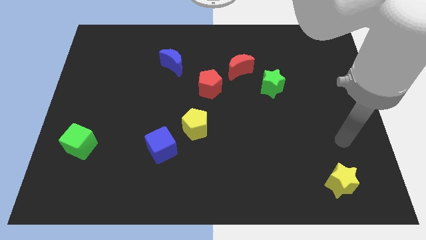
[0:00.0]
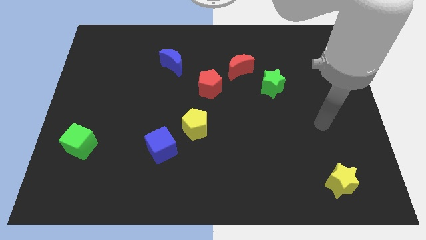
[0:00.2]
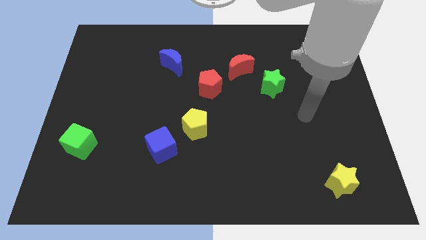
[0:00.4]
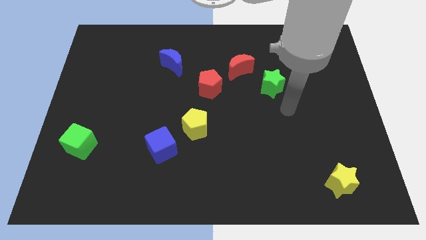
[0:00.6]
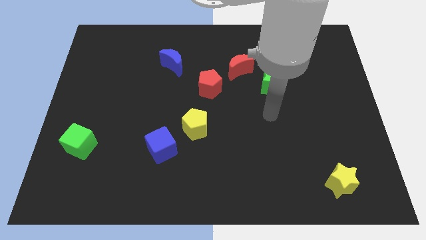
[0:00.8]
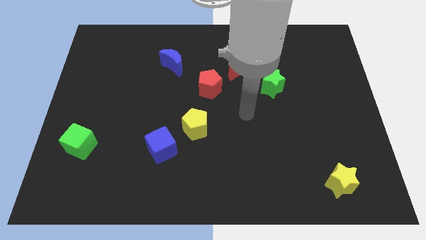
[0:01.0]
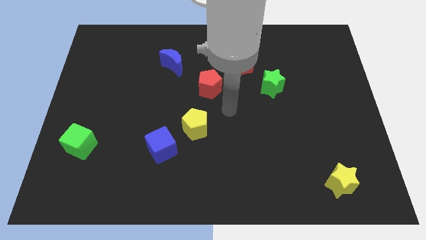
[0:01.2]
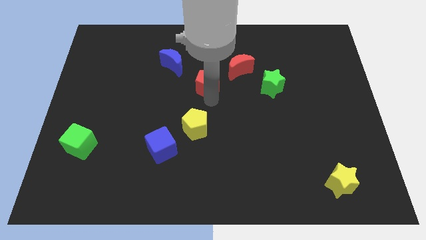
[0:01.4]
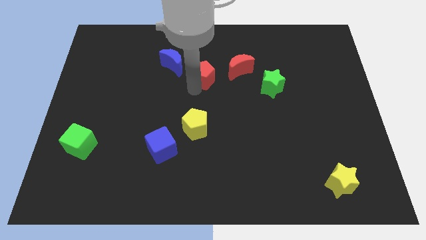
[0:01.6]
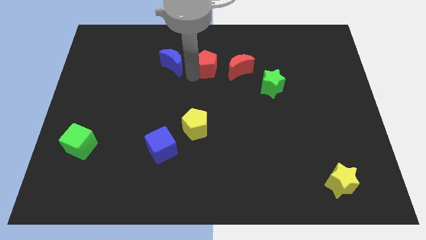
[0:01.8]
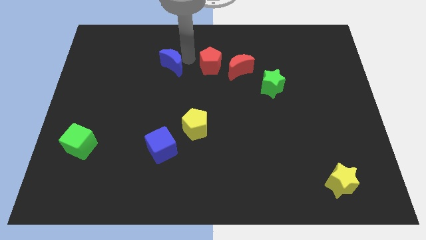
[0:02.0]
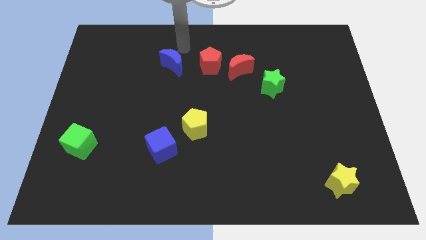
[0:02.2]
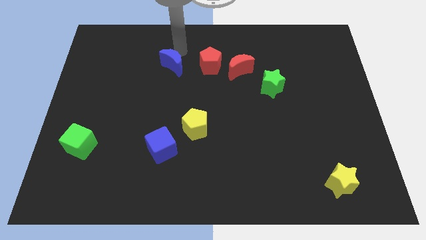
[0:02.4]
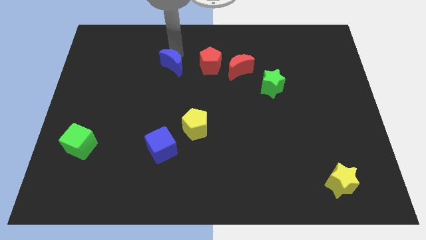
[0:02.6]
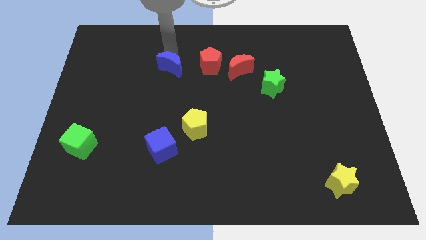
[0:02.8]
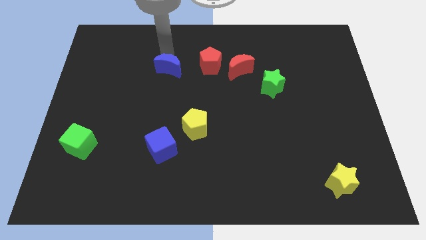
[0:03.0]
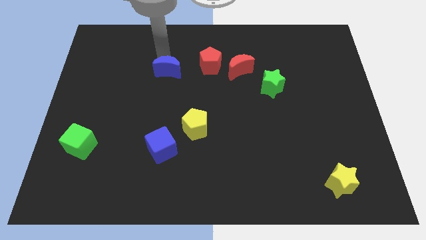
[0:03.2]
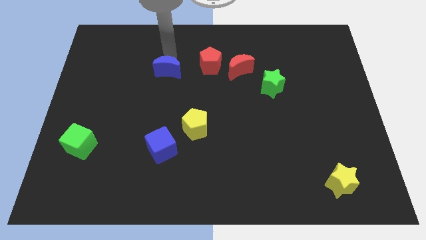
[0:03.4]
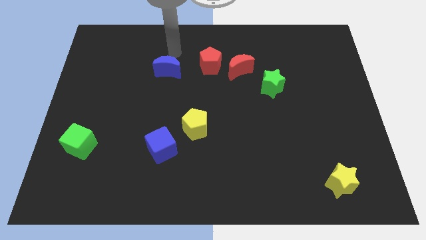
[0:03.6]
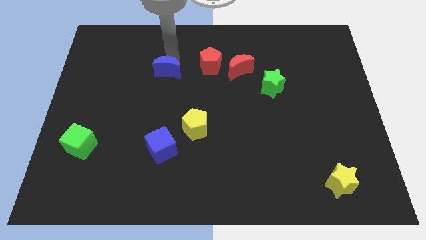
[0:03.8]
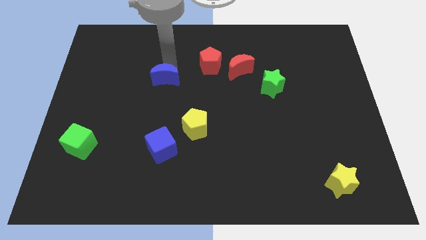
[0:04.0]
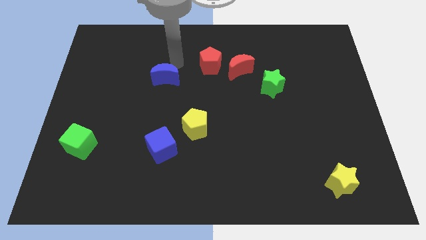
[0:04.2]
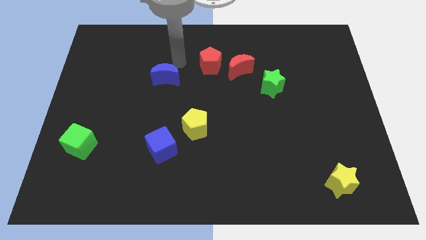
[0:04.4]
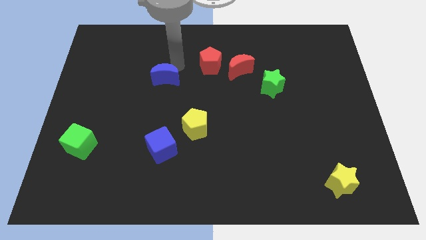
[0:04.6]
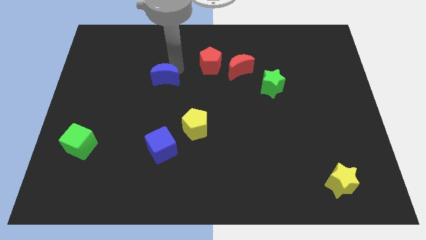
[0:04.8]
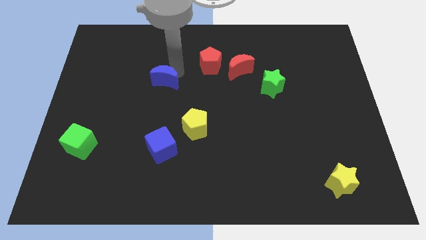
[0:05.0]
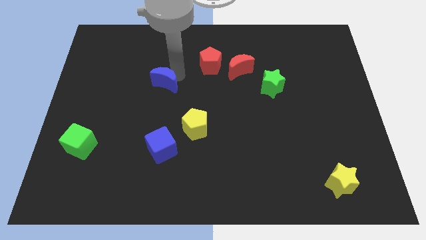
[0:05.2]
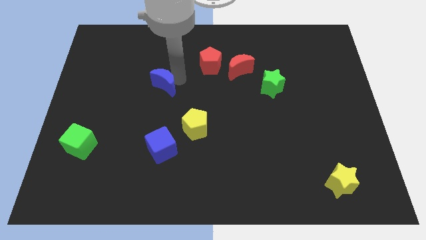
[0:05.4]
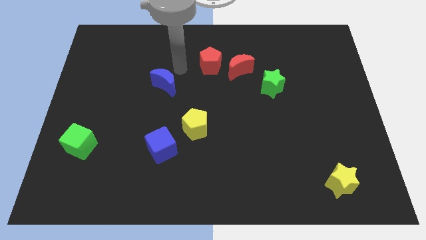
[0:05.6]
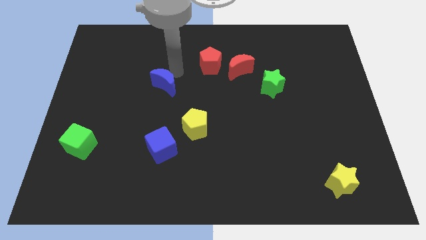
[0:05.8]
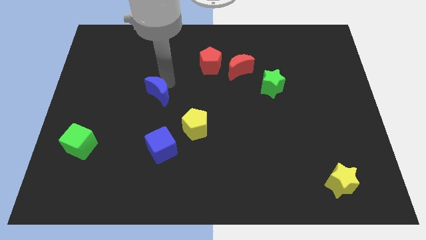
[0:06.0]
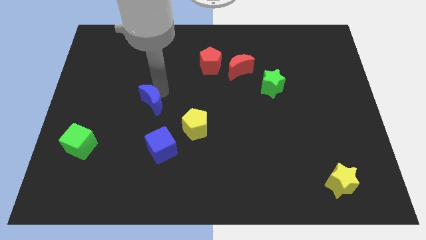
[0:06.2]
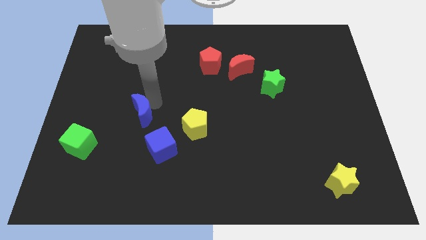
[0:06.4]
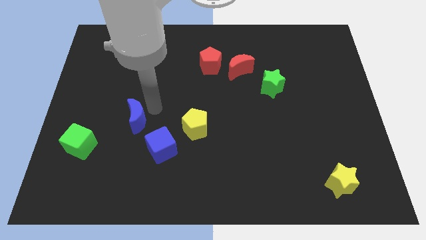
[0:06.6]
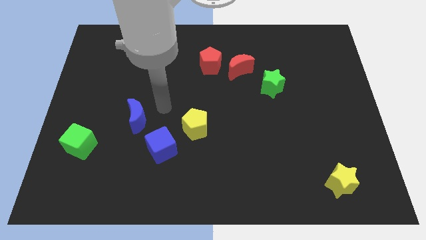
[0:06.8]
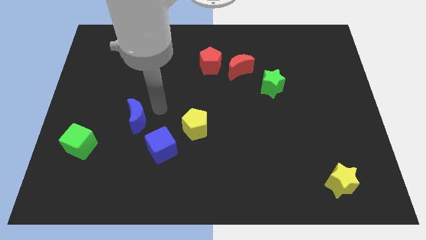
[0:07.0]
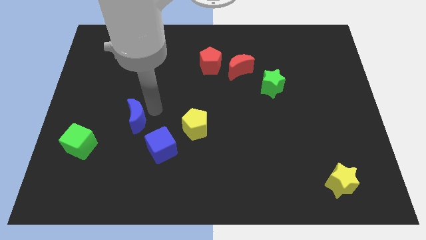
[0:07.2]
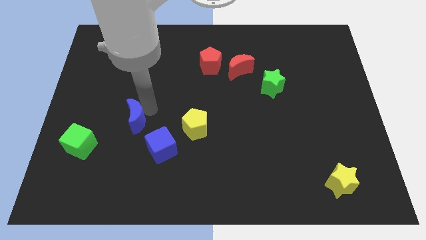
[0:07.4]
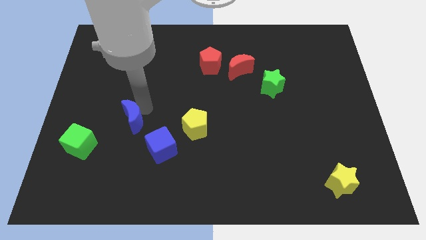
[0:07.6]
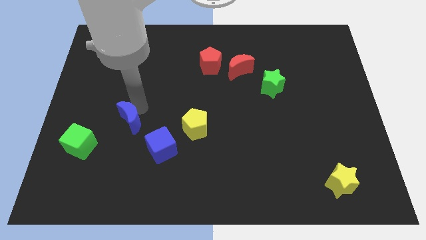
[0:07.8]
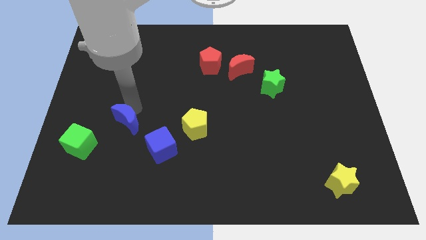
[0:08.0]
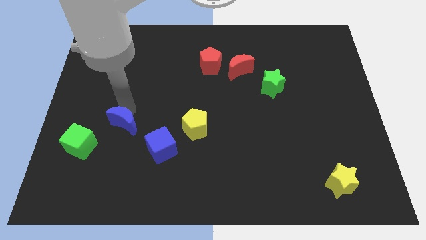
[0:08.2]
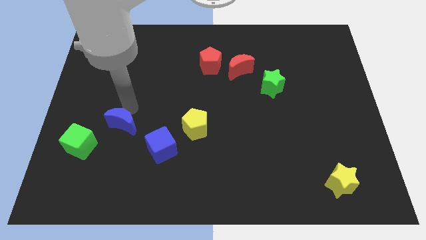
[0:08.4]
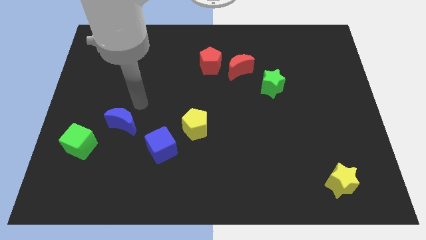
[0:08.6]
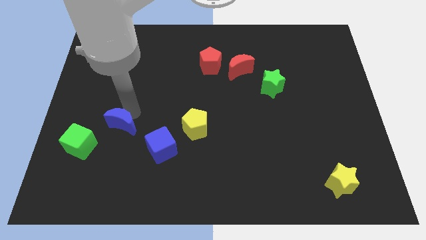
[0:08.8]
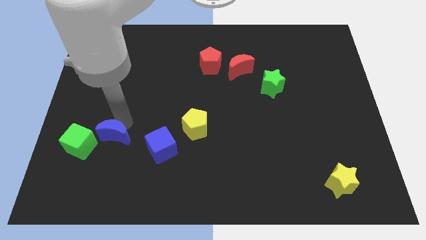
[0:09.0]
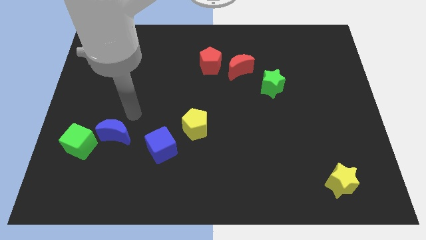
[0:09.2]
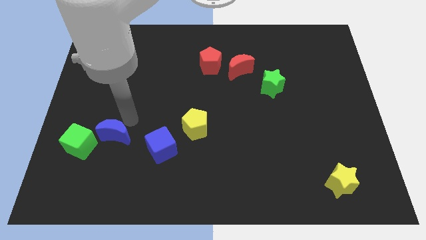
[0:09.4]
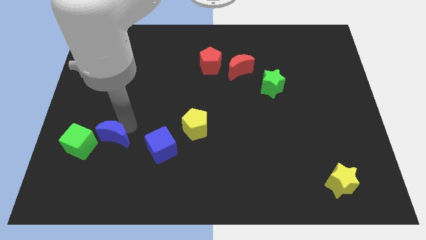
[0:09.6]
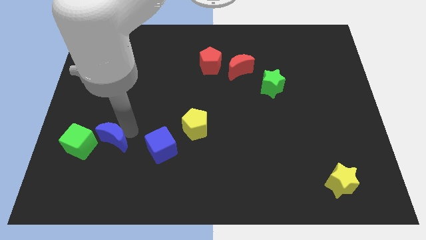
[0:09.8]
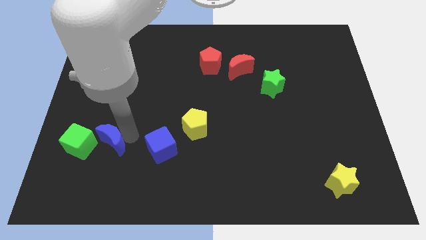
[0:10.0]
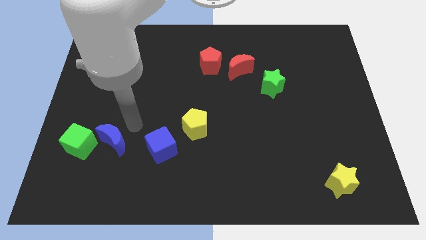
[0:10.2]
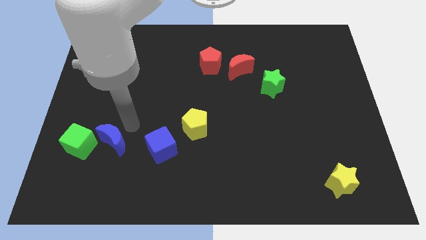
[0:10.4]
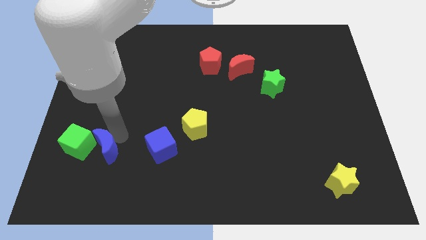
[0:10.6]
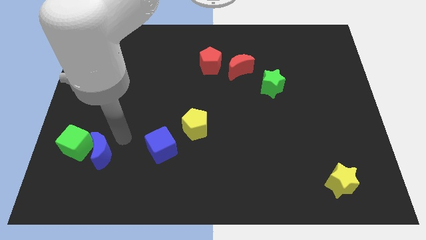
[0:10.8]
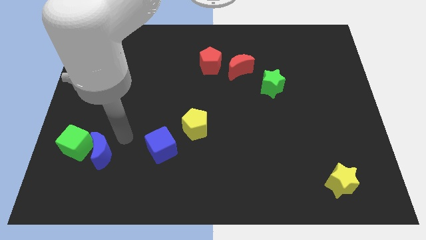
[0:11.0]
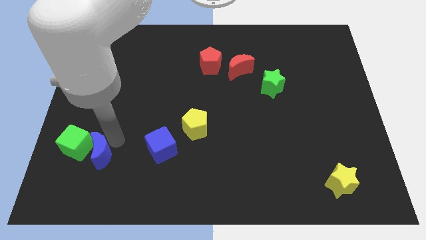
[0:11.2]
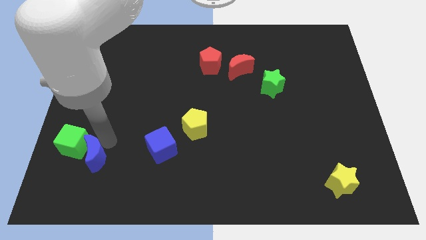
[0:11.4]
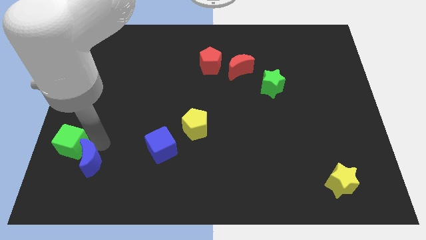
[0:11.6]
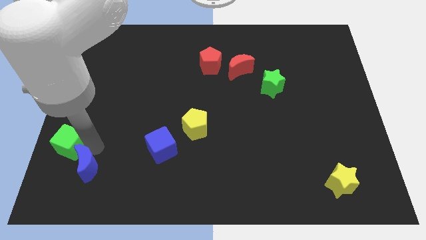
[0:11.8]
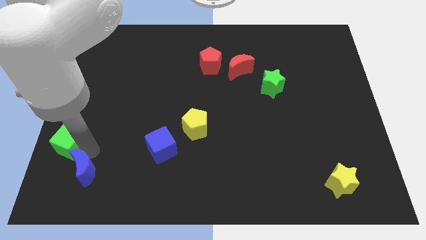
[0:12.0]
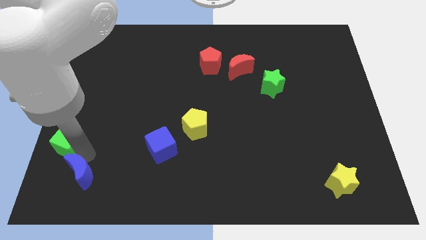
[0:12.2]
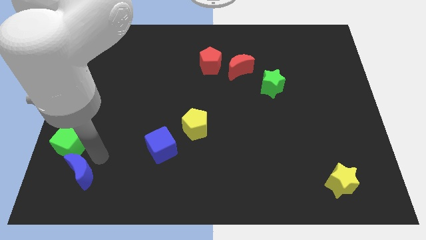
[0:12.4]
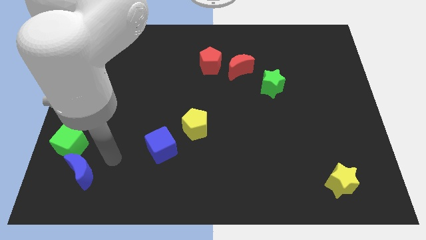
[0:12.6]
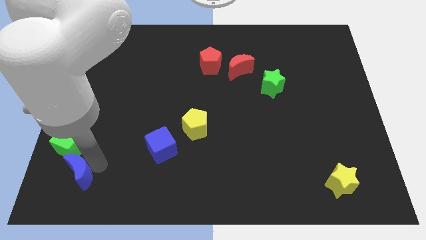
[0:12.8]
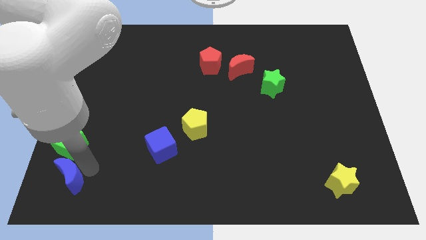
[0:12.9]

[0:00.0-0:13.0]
put the blue moon to the lower left corner
